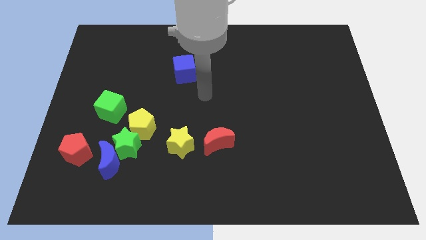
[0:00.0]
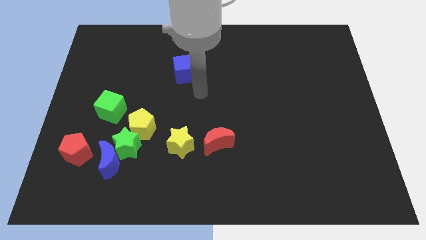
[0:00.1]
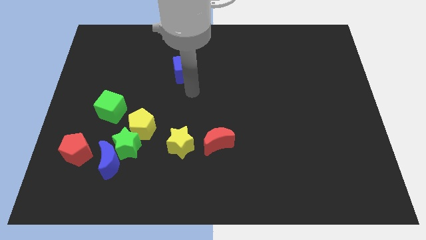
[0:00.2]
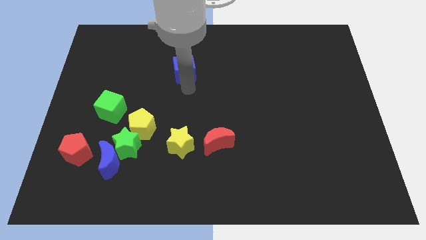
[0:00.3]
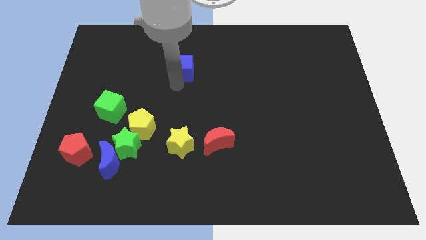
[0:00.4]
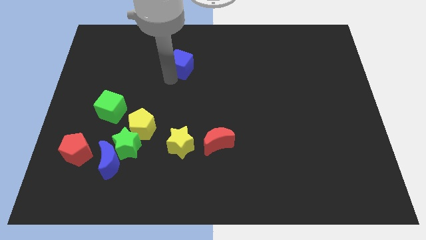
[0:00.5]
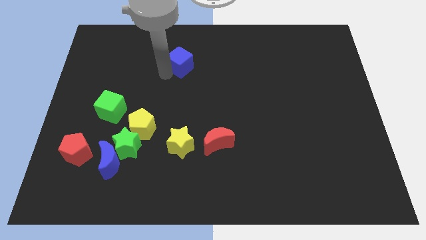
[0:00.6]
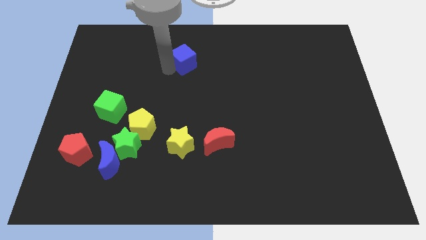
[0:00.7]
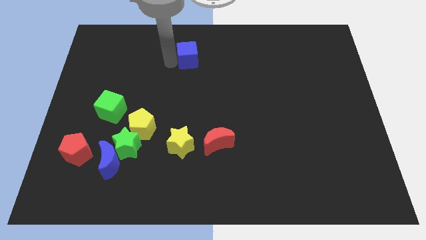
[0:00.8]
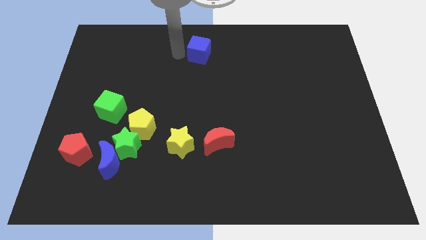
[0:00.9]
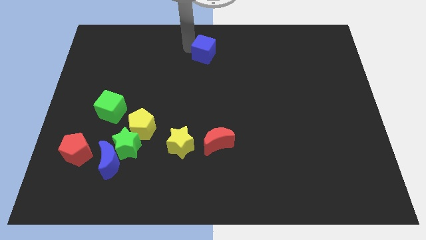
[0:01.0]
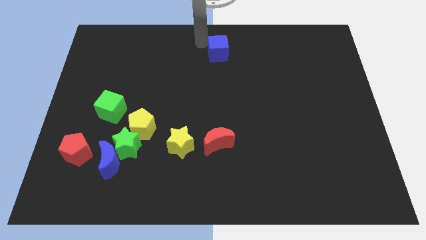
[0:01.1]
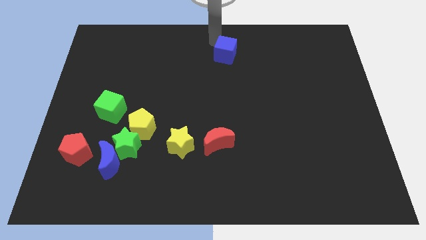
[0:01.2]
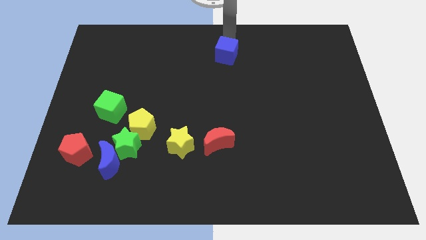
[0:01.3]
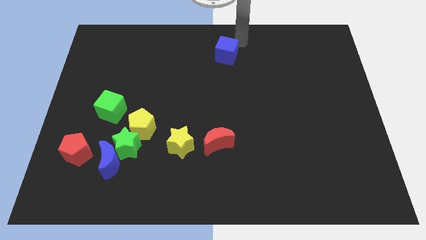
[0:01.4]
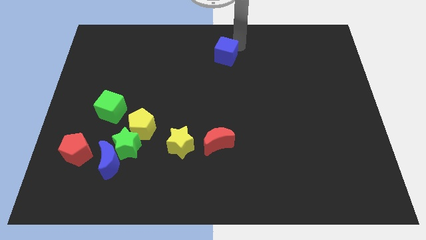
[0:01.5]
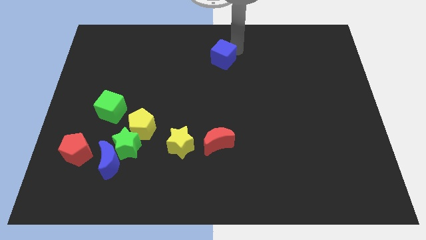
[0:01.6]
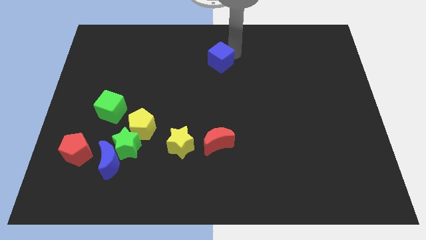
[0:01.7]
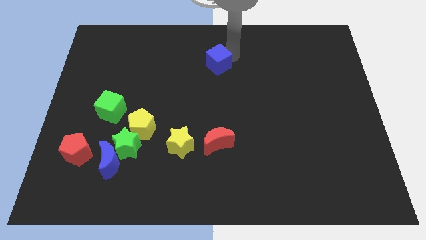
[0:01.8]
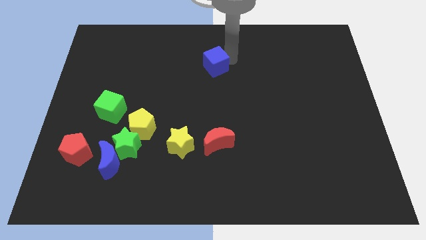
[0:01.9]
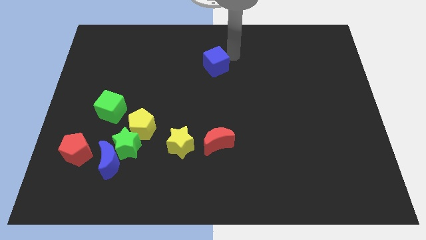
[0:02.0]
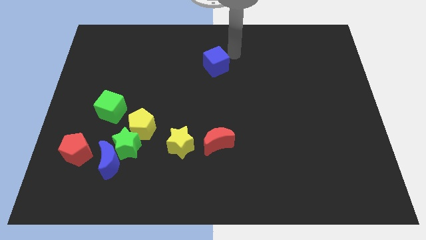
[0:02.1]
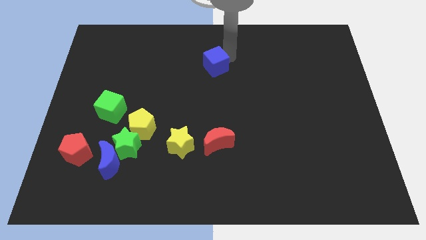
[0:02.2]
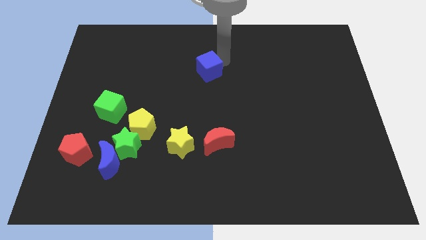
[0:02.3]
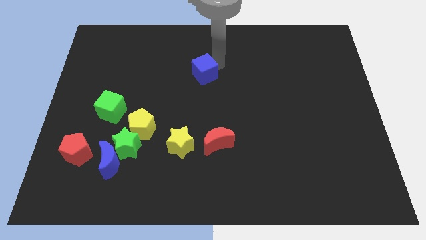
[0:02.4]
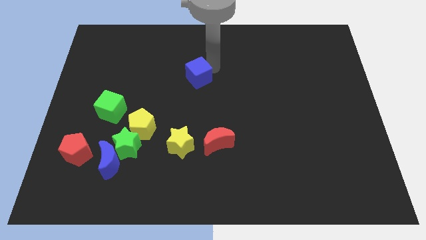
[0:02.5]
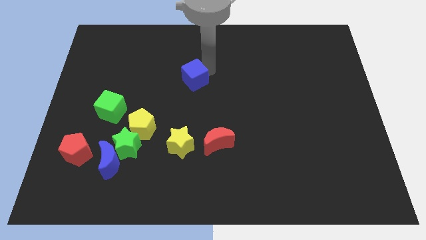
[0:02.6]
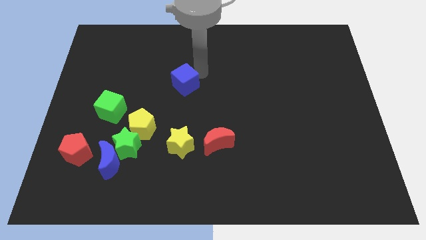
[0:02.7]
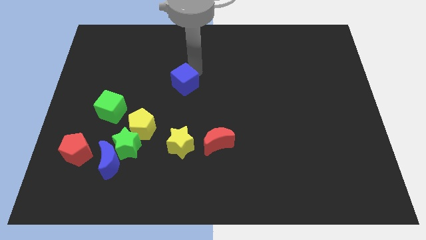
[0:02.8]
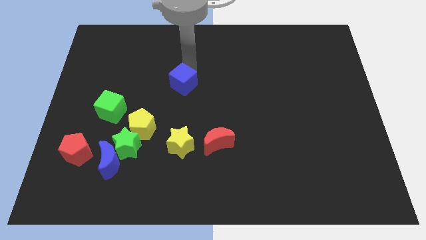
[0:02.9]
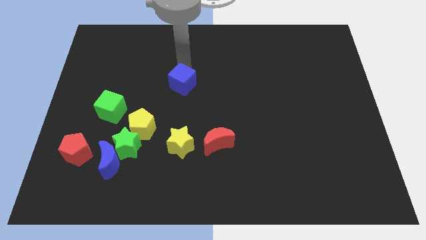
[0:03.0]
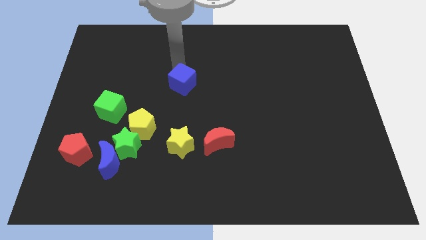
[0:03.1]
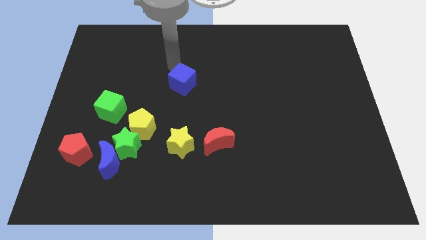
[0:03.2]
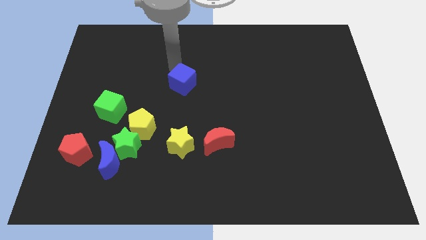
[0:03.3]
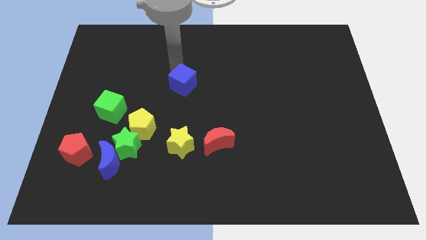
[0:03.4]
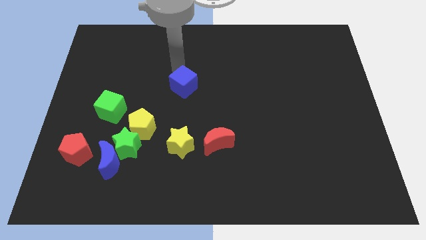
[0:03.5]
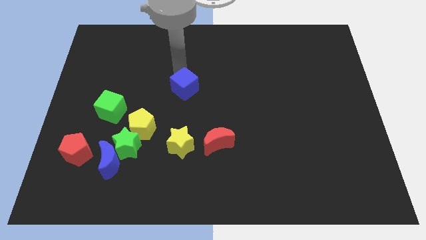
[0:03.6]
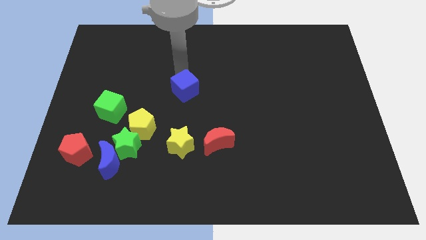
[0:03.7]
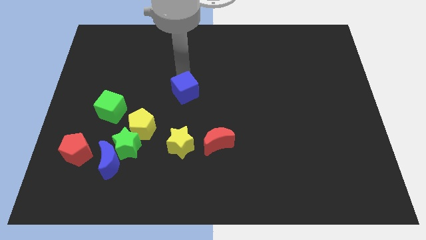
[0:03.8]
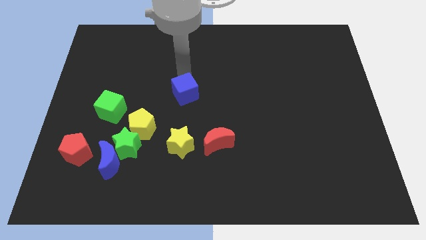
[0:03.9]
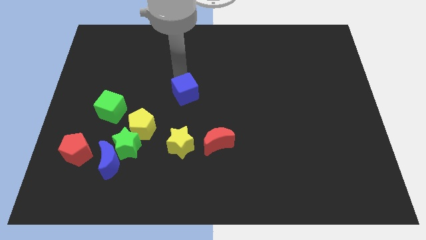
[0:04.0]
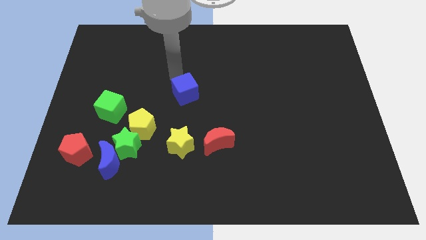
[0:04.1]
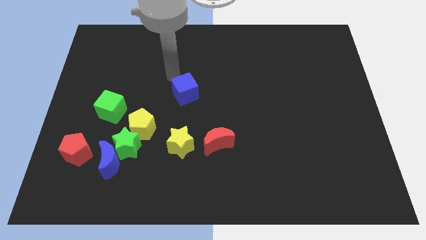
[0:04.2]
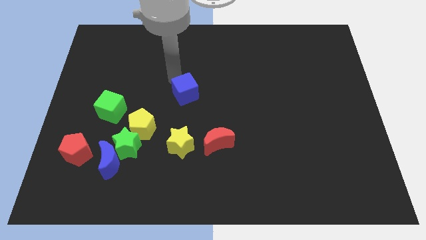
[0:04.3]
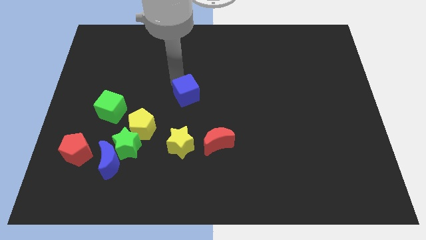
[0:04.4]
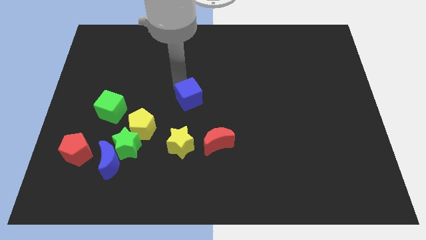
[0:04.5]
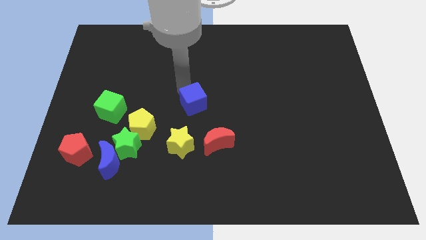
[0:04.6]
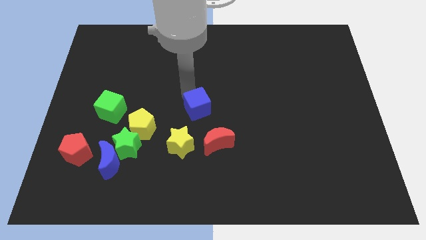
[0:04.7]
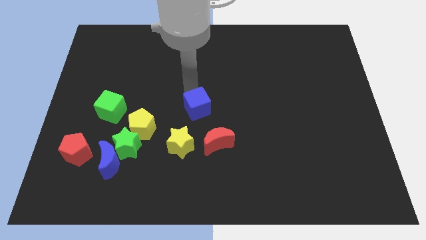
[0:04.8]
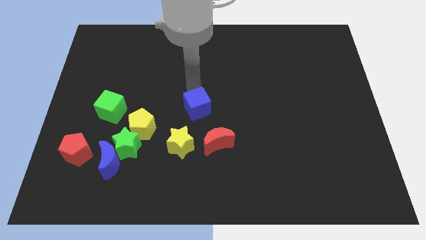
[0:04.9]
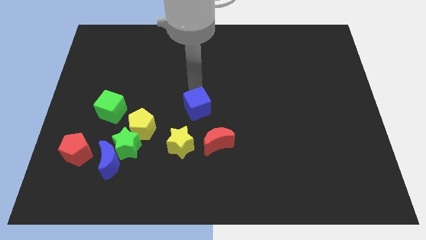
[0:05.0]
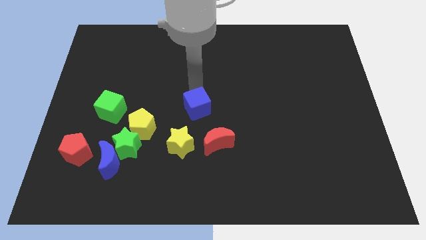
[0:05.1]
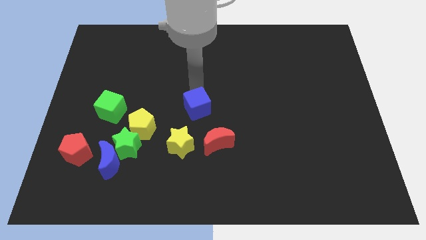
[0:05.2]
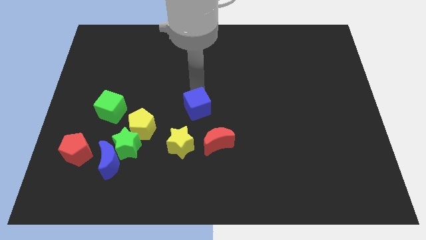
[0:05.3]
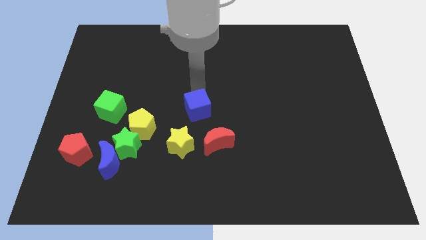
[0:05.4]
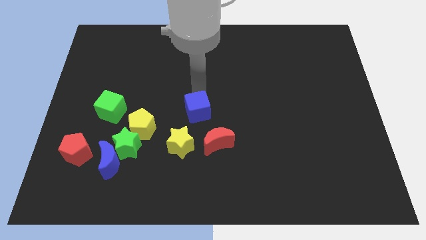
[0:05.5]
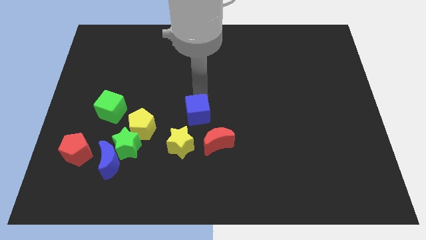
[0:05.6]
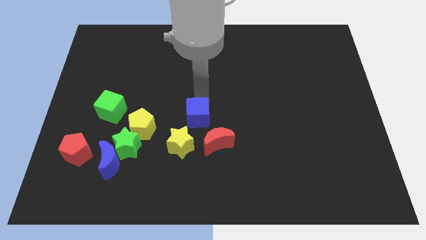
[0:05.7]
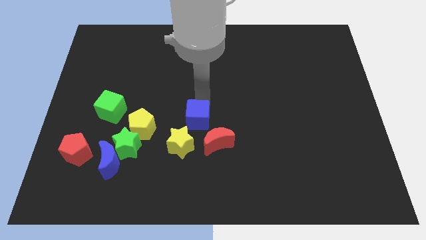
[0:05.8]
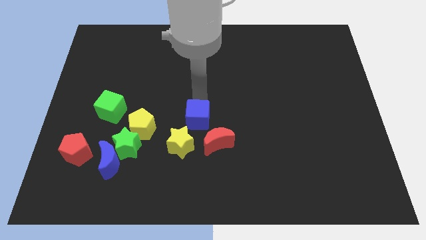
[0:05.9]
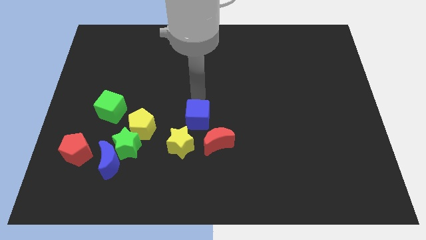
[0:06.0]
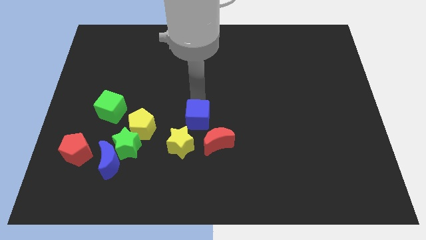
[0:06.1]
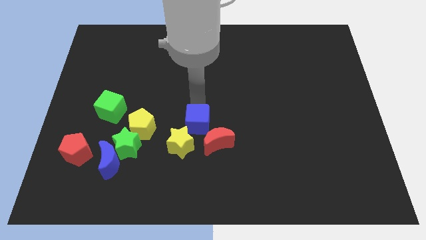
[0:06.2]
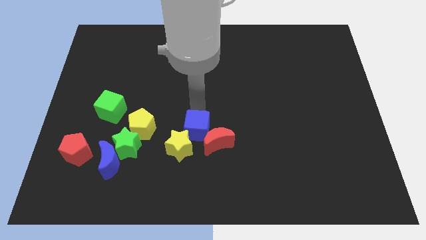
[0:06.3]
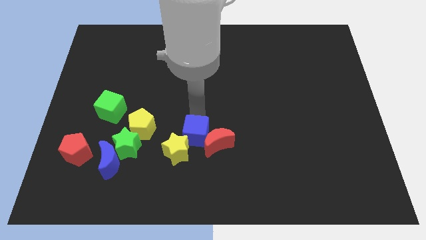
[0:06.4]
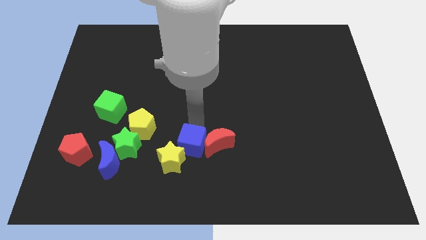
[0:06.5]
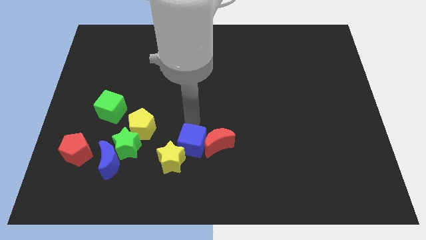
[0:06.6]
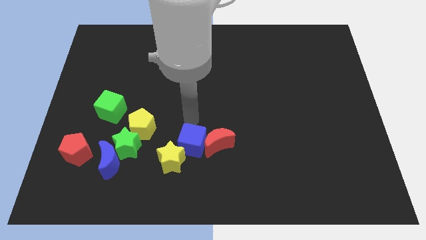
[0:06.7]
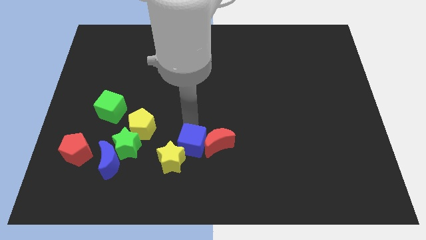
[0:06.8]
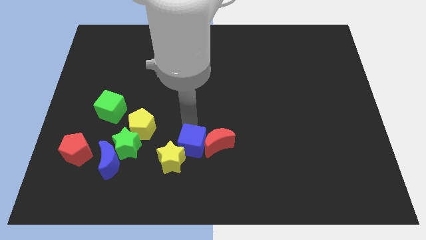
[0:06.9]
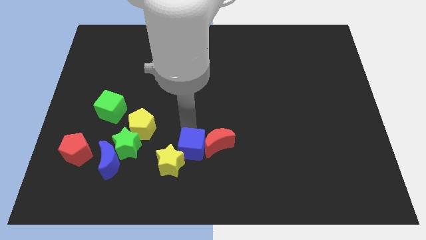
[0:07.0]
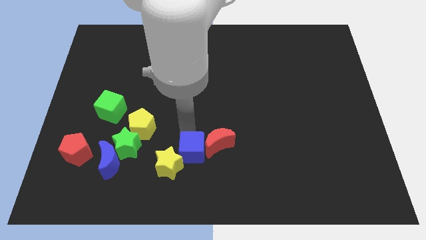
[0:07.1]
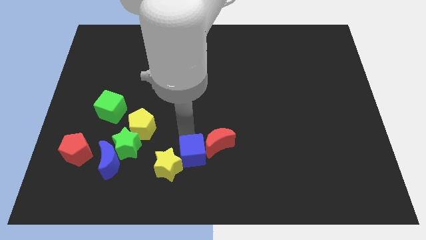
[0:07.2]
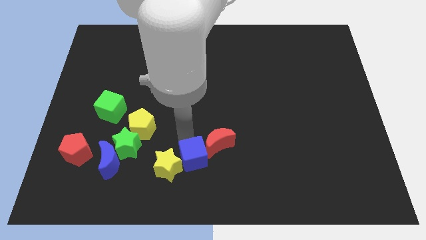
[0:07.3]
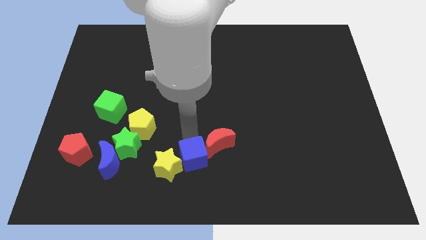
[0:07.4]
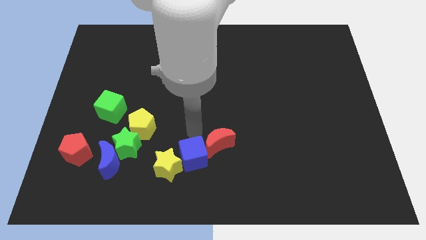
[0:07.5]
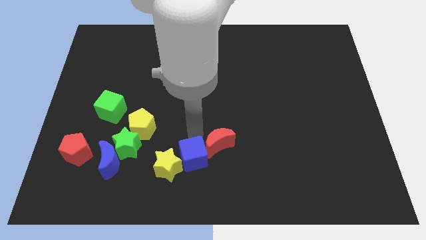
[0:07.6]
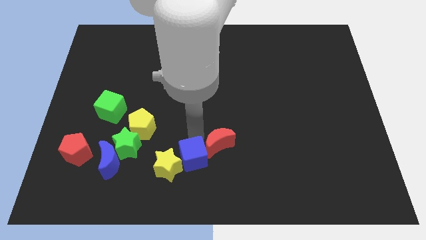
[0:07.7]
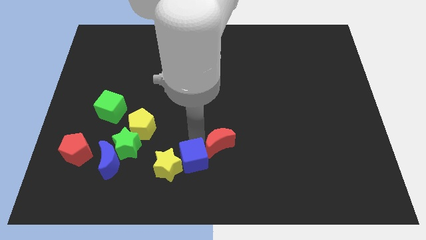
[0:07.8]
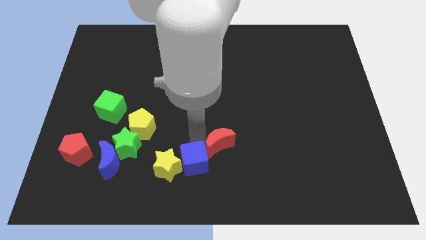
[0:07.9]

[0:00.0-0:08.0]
move the blue cube diagonally down and to the right of the yellow star

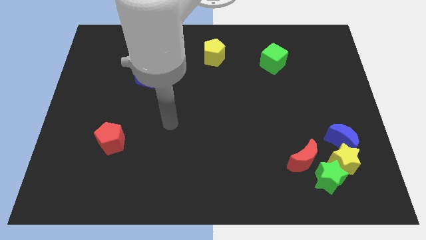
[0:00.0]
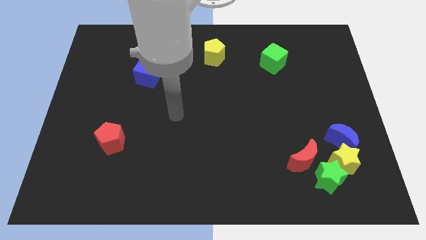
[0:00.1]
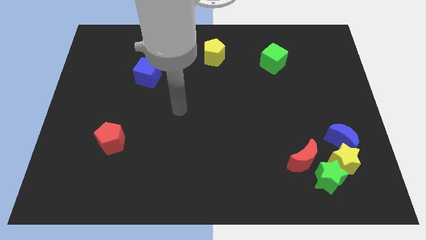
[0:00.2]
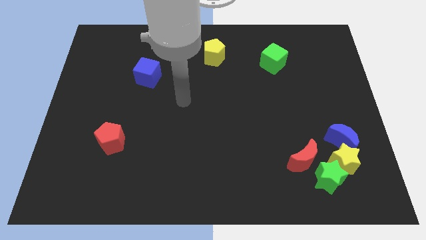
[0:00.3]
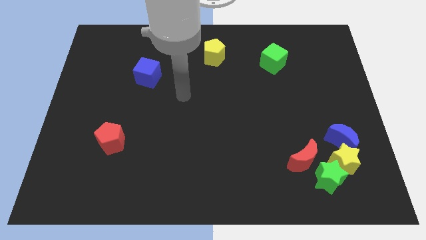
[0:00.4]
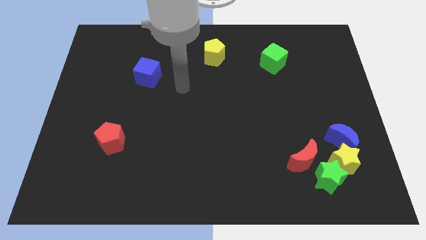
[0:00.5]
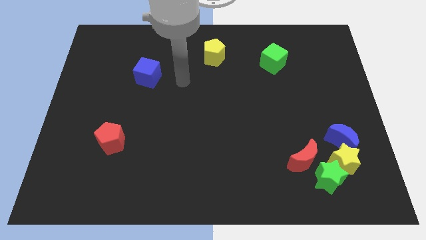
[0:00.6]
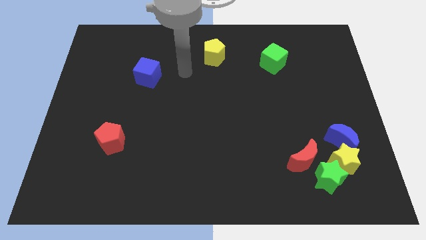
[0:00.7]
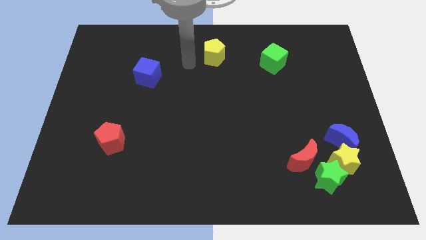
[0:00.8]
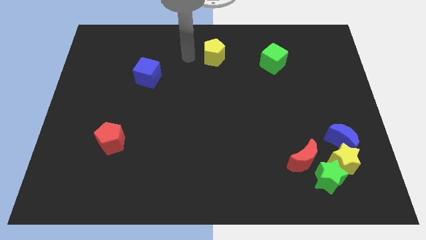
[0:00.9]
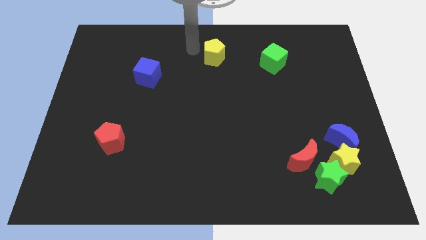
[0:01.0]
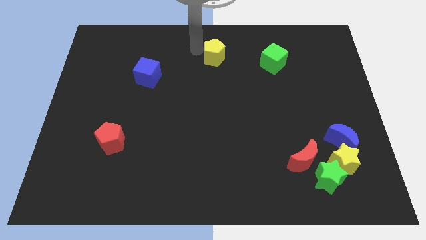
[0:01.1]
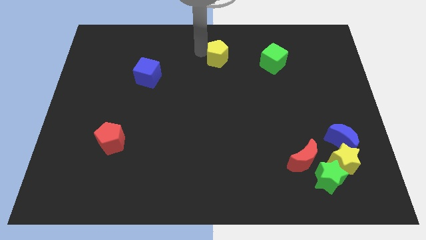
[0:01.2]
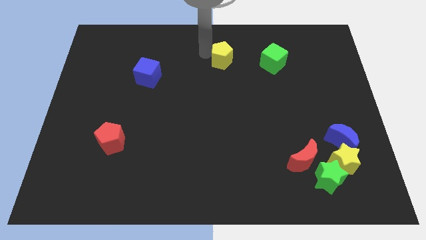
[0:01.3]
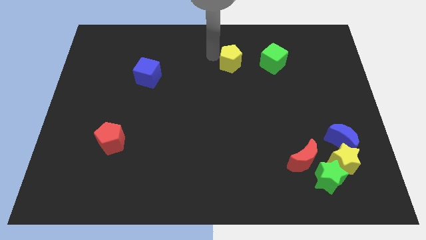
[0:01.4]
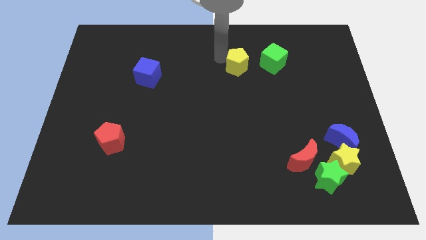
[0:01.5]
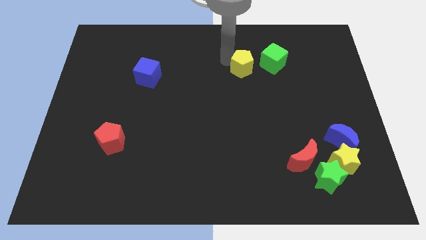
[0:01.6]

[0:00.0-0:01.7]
move the yellow pentagon to the bottom left of the green cube
